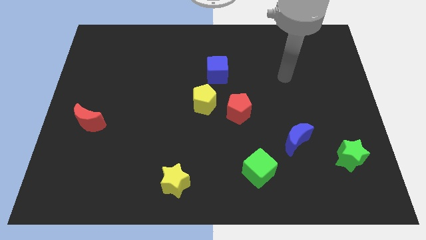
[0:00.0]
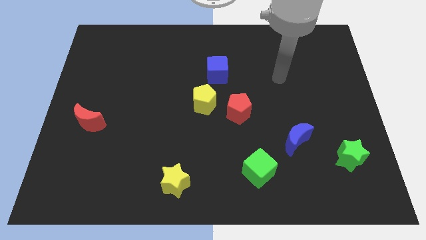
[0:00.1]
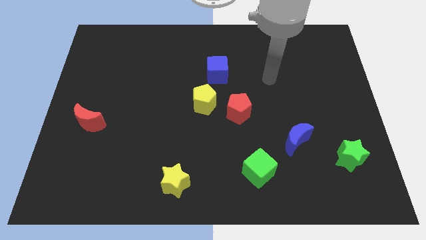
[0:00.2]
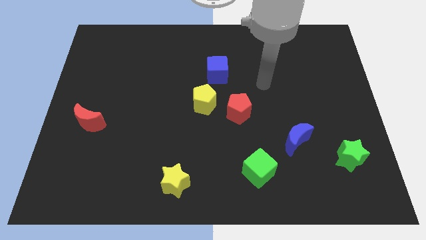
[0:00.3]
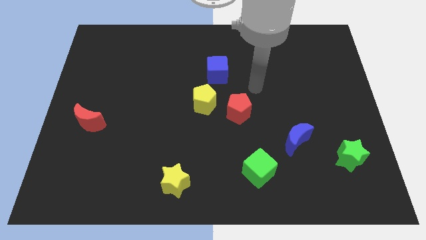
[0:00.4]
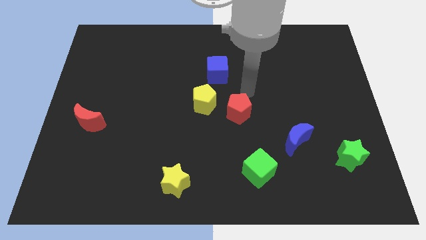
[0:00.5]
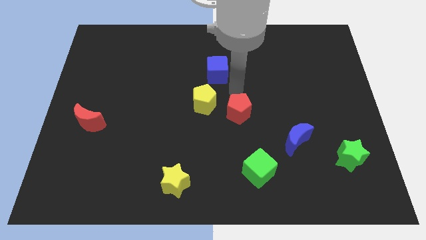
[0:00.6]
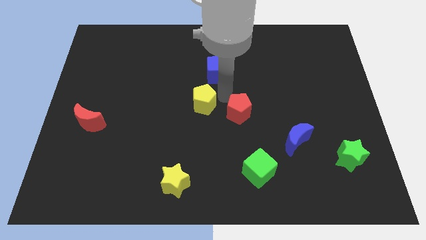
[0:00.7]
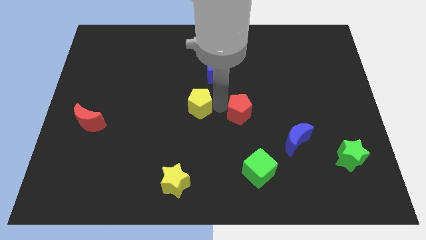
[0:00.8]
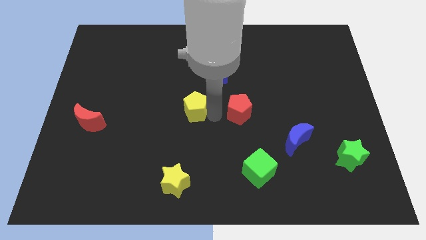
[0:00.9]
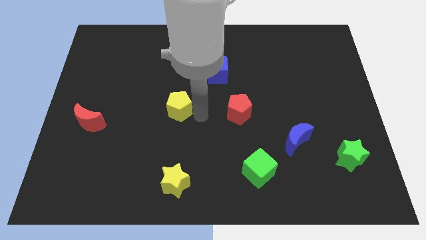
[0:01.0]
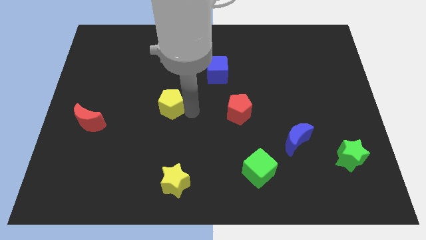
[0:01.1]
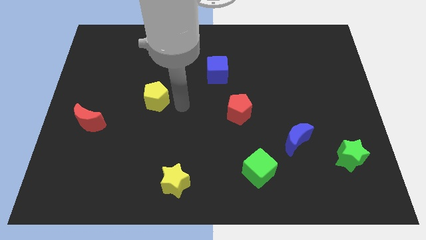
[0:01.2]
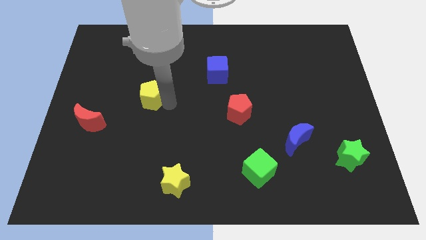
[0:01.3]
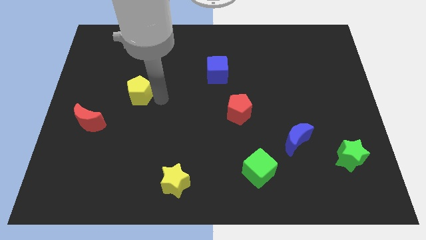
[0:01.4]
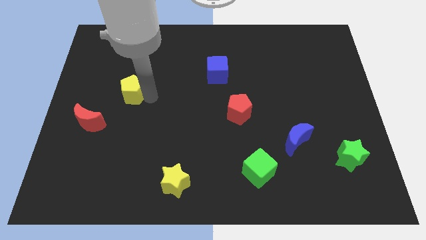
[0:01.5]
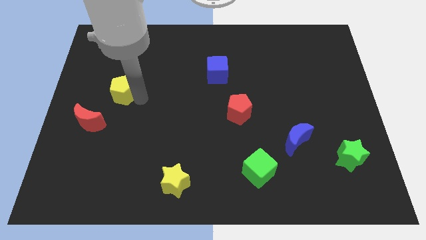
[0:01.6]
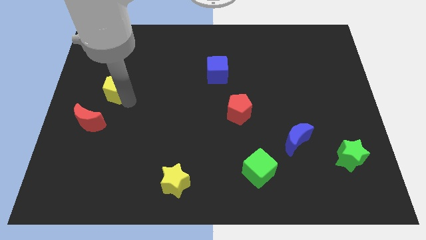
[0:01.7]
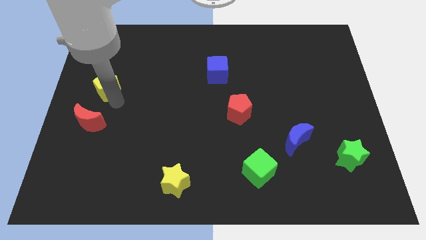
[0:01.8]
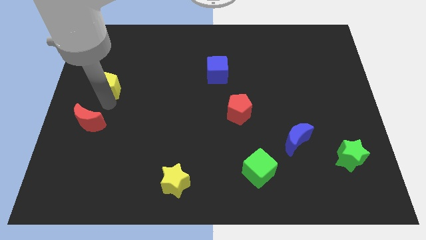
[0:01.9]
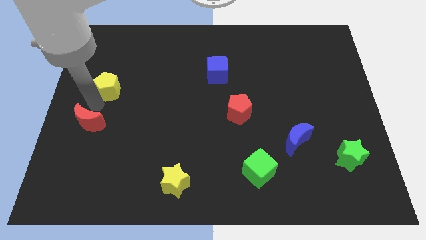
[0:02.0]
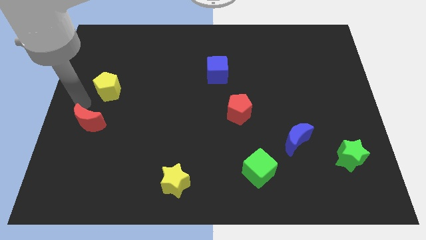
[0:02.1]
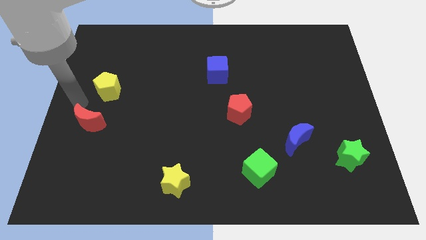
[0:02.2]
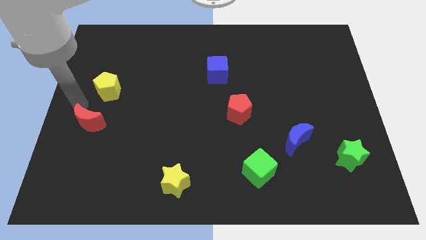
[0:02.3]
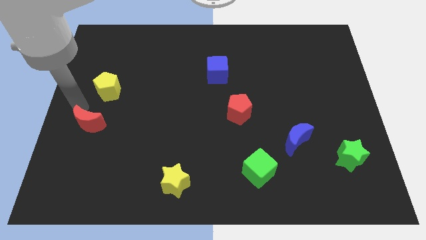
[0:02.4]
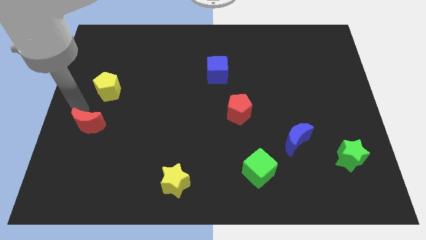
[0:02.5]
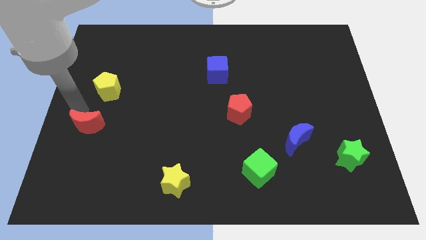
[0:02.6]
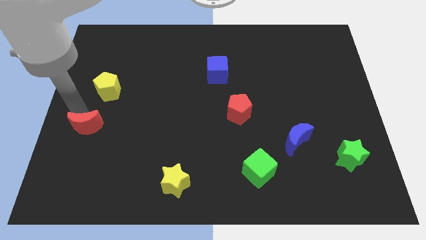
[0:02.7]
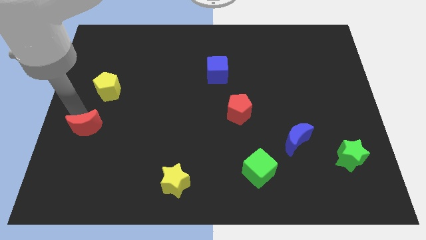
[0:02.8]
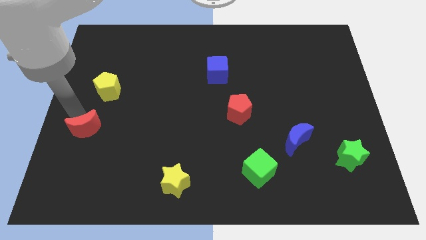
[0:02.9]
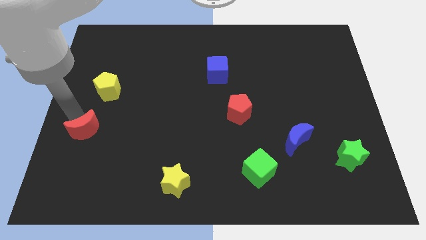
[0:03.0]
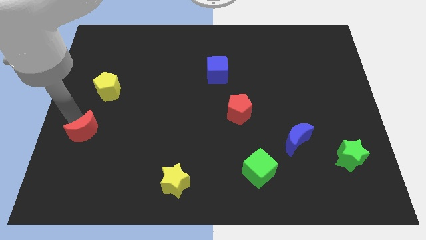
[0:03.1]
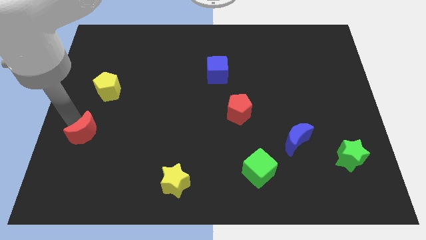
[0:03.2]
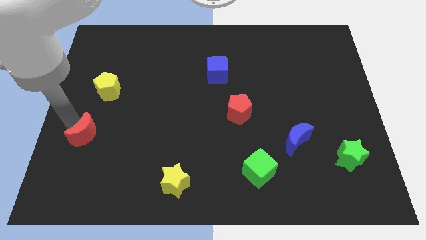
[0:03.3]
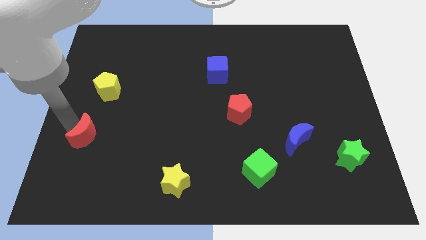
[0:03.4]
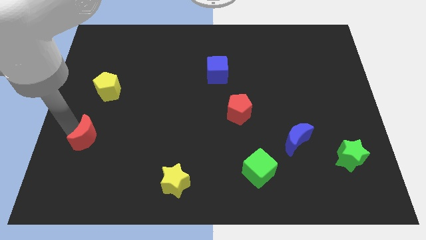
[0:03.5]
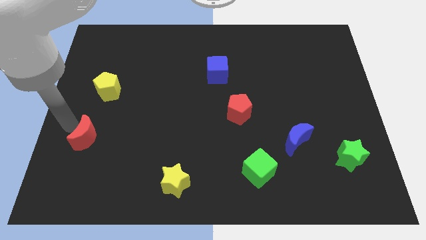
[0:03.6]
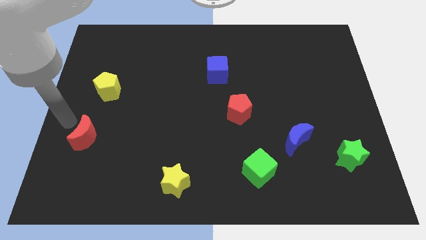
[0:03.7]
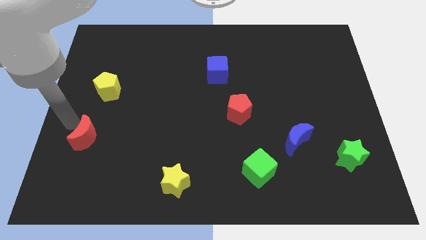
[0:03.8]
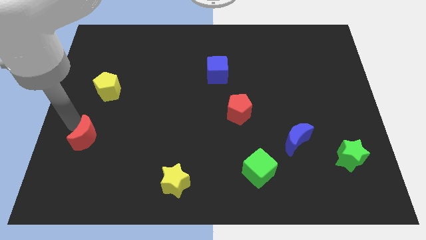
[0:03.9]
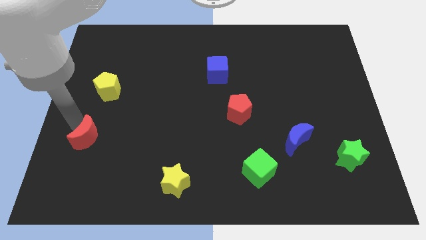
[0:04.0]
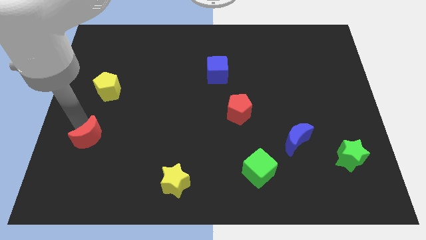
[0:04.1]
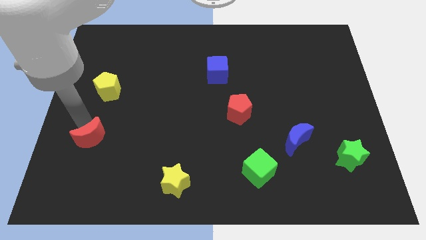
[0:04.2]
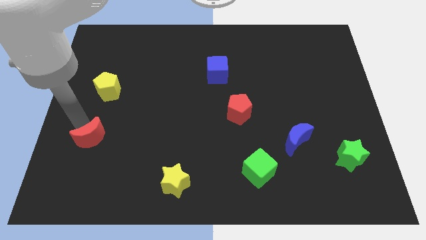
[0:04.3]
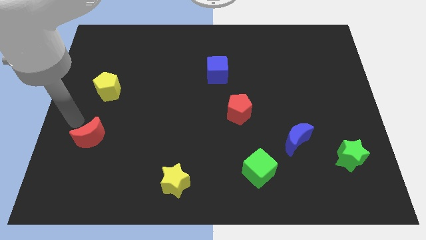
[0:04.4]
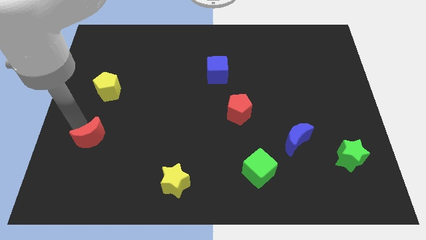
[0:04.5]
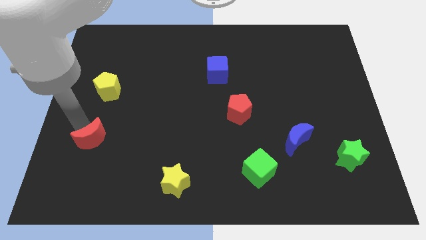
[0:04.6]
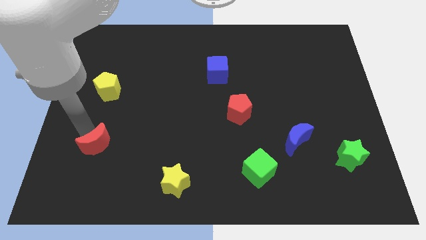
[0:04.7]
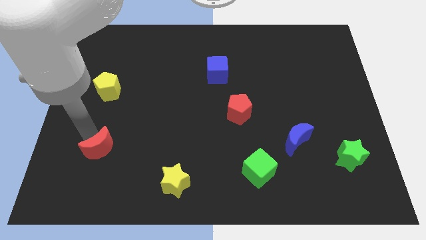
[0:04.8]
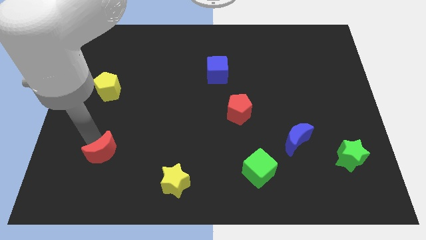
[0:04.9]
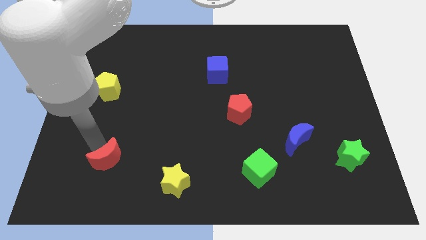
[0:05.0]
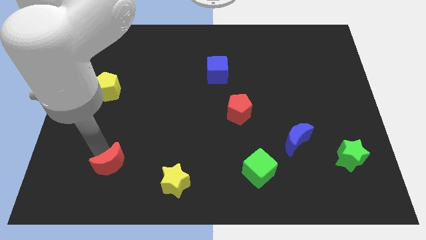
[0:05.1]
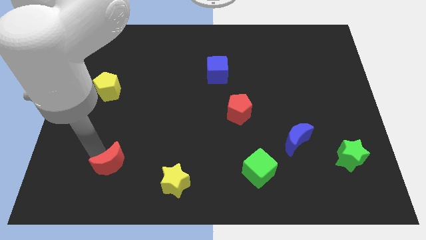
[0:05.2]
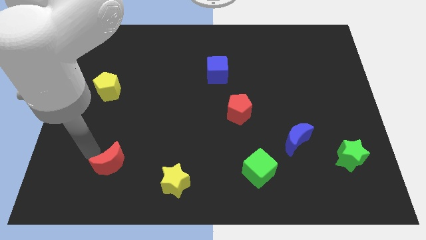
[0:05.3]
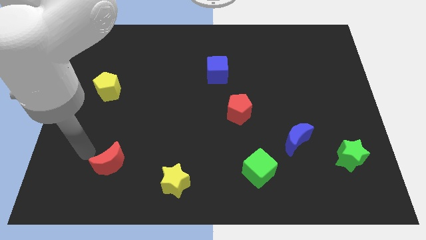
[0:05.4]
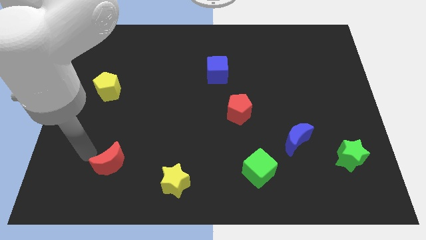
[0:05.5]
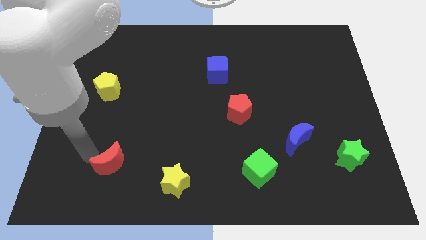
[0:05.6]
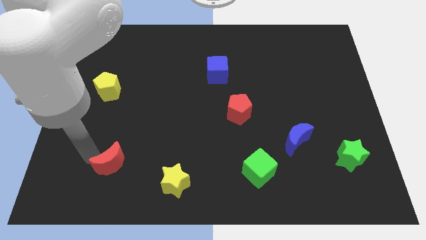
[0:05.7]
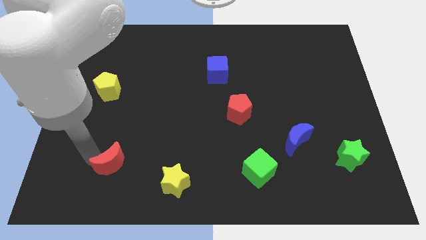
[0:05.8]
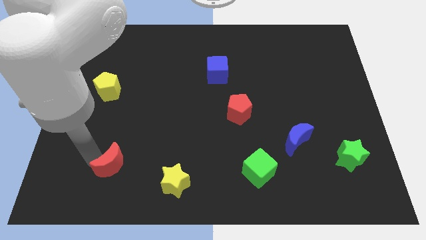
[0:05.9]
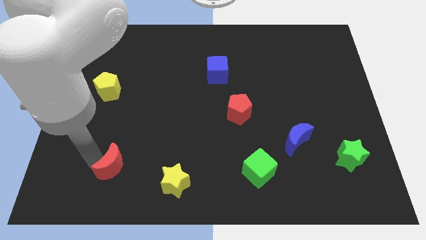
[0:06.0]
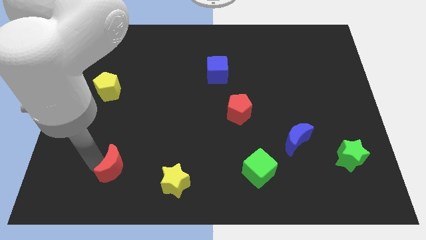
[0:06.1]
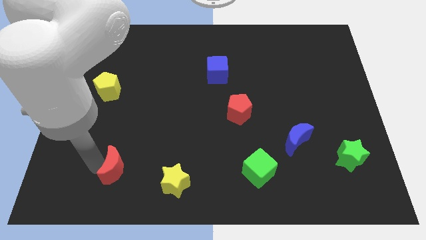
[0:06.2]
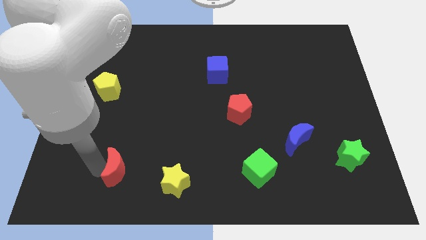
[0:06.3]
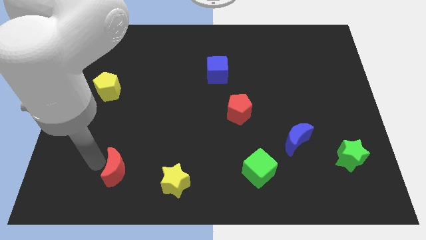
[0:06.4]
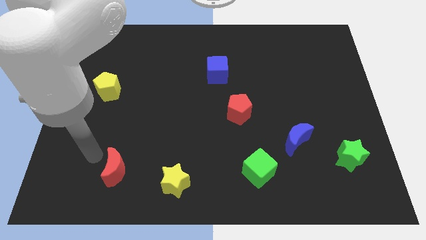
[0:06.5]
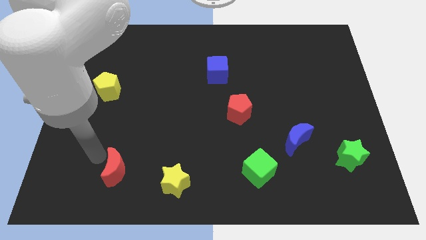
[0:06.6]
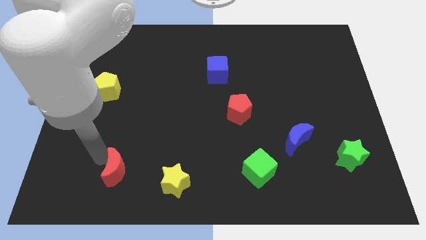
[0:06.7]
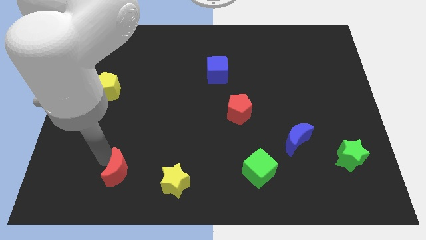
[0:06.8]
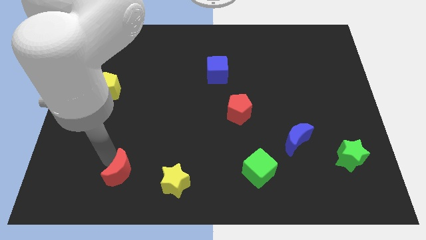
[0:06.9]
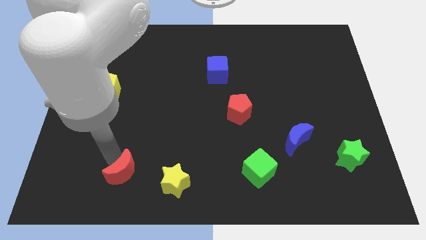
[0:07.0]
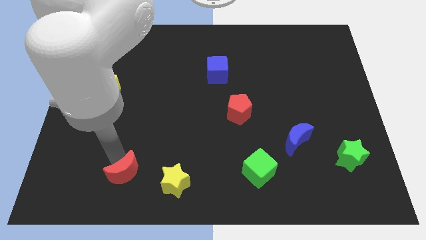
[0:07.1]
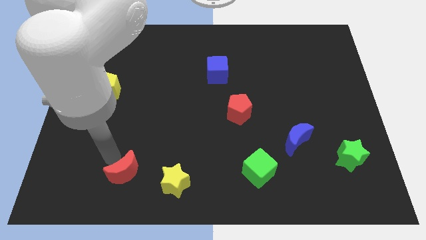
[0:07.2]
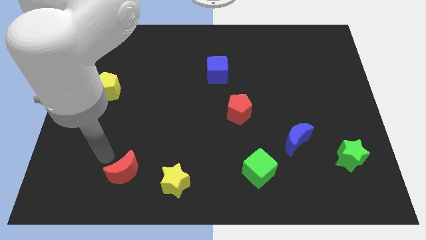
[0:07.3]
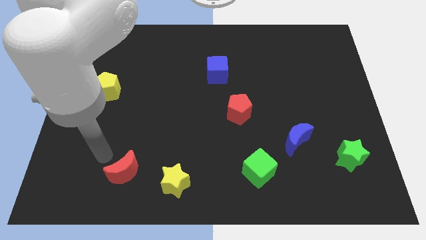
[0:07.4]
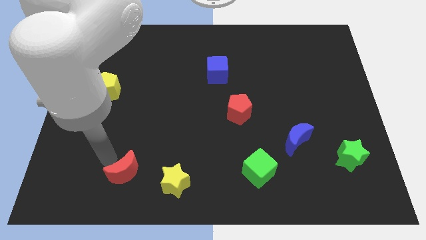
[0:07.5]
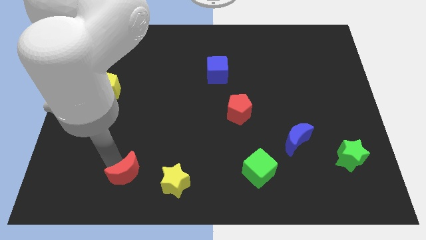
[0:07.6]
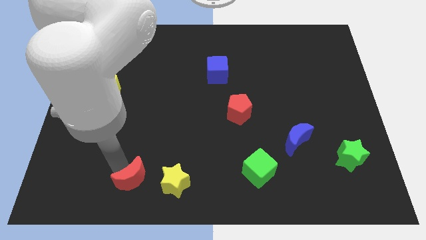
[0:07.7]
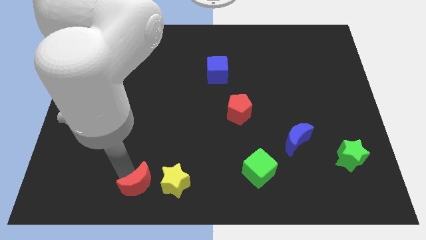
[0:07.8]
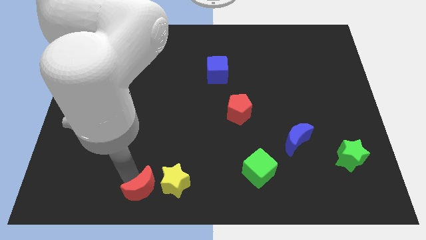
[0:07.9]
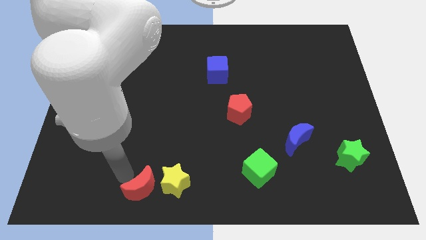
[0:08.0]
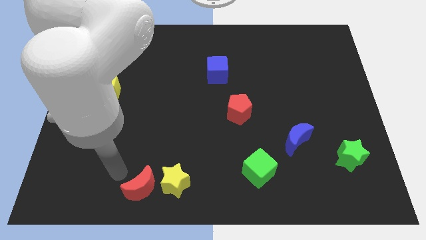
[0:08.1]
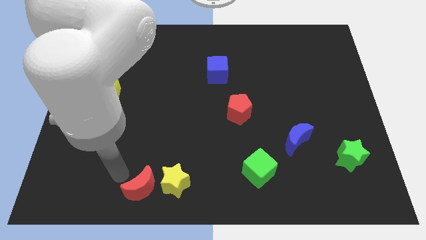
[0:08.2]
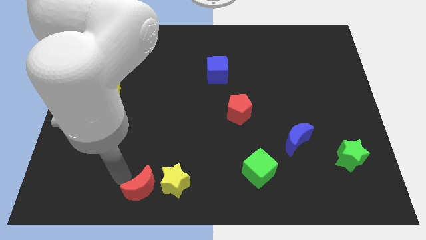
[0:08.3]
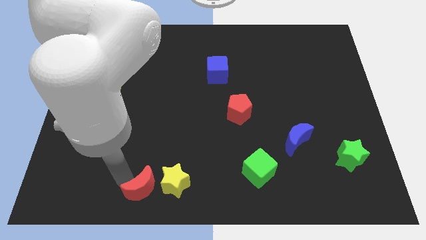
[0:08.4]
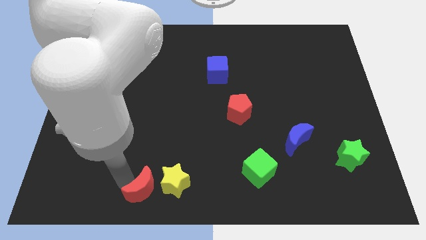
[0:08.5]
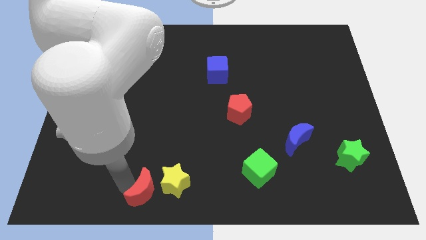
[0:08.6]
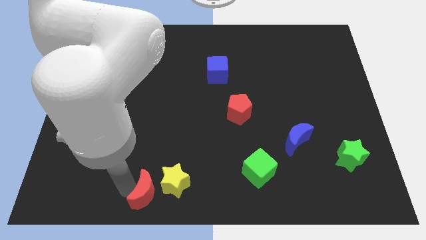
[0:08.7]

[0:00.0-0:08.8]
push the red moon to the bottom side
